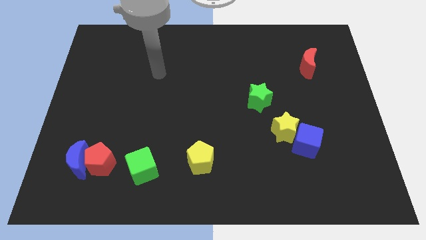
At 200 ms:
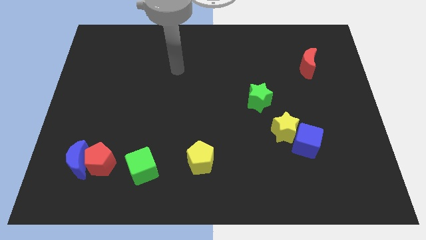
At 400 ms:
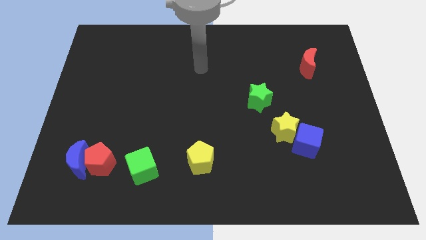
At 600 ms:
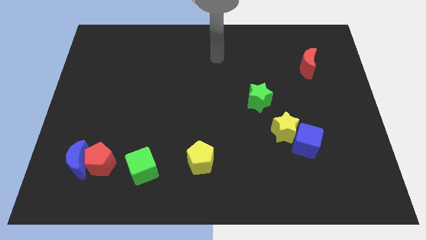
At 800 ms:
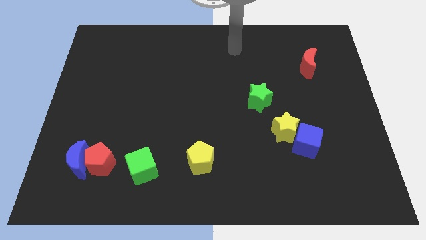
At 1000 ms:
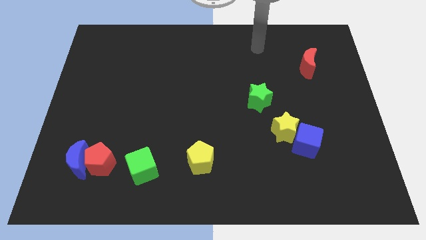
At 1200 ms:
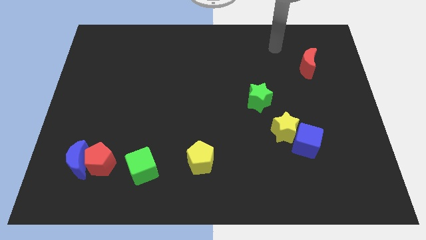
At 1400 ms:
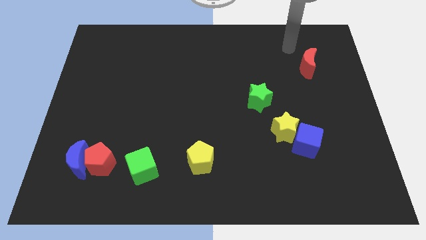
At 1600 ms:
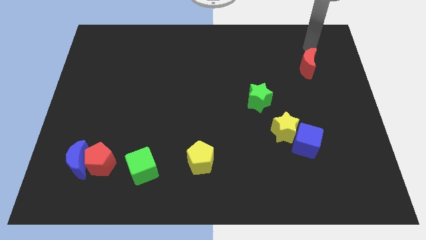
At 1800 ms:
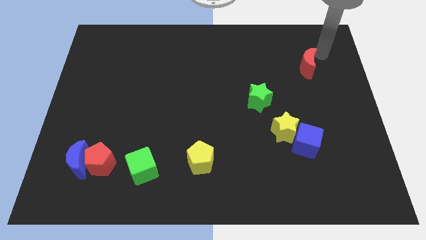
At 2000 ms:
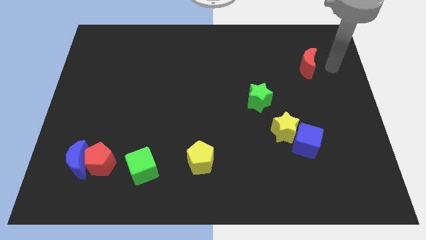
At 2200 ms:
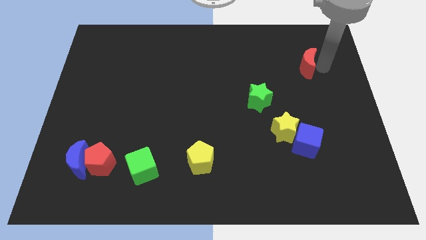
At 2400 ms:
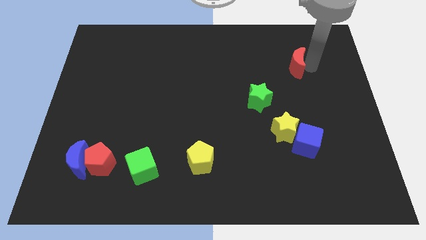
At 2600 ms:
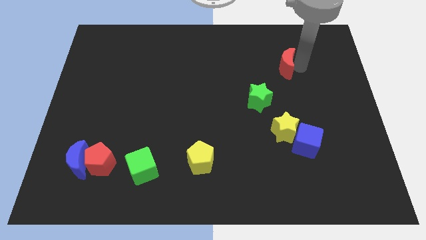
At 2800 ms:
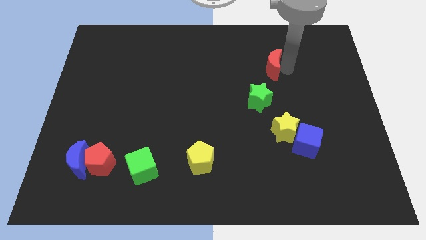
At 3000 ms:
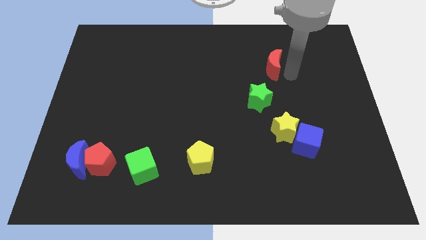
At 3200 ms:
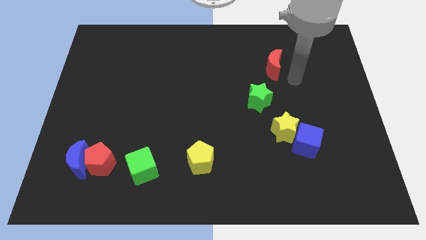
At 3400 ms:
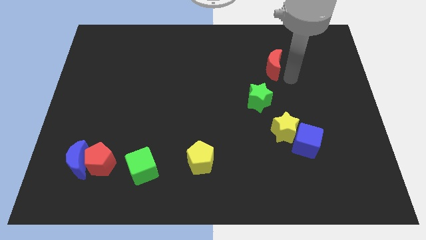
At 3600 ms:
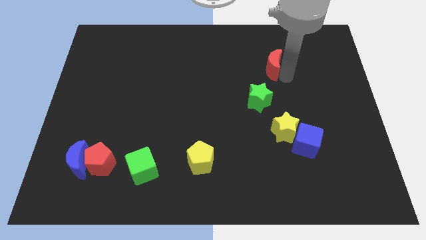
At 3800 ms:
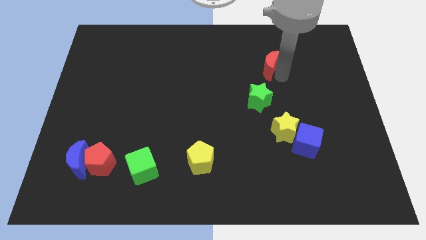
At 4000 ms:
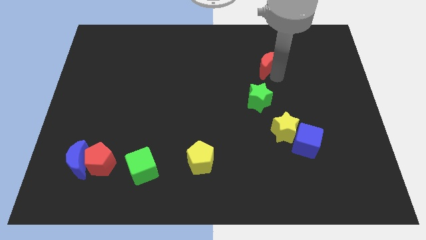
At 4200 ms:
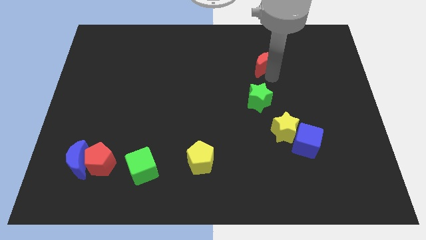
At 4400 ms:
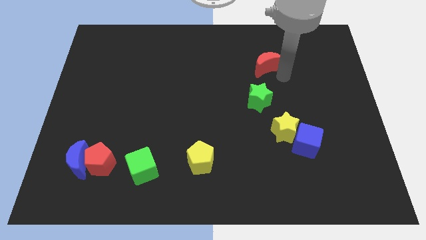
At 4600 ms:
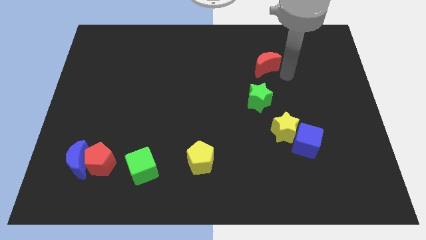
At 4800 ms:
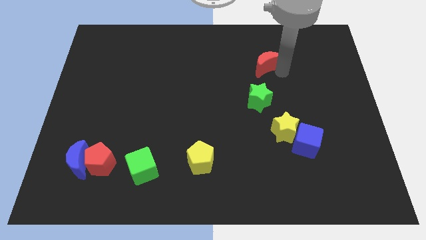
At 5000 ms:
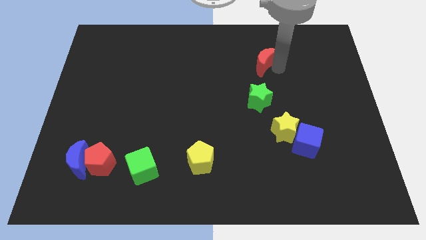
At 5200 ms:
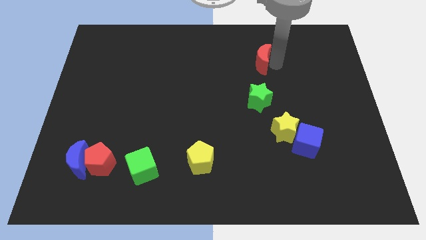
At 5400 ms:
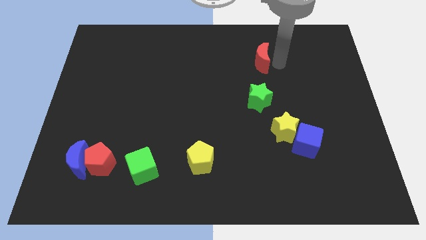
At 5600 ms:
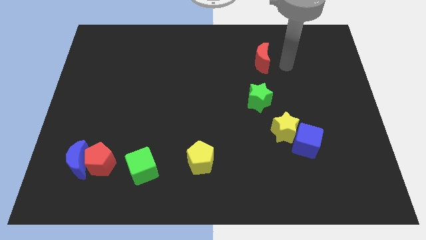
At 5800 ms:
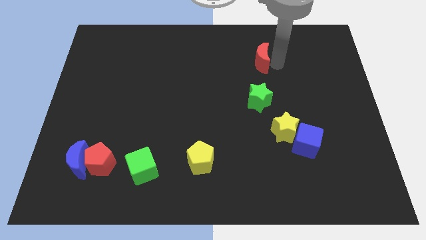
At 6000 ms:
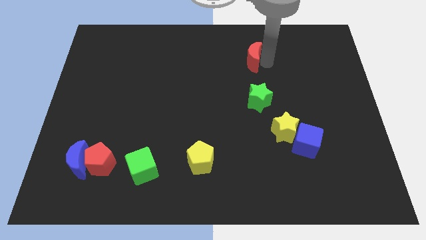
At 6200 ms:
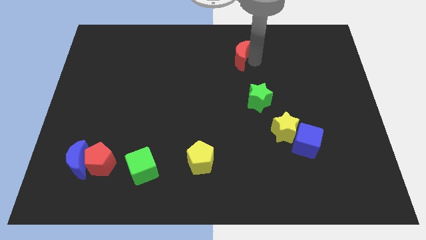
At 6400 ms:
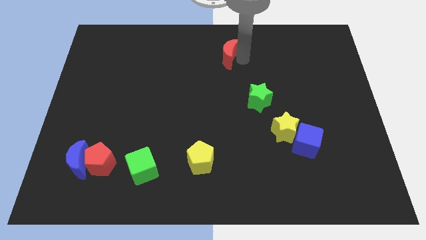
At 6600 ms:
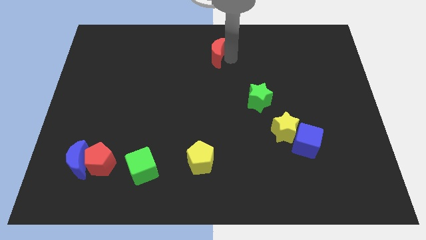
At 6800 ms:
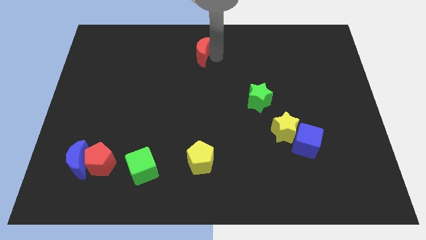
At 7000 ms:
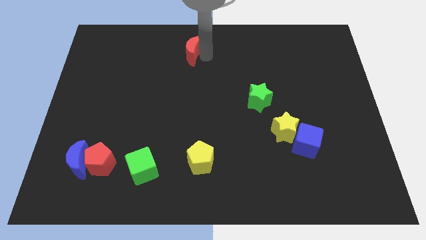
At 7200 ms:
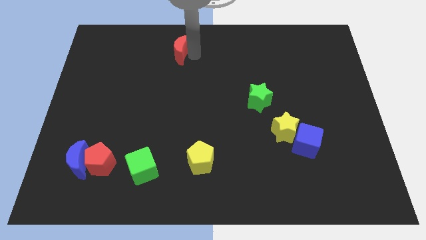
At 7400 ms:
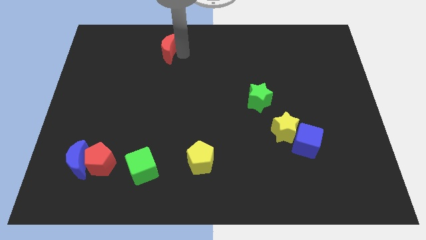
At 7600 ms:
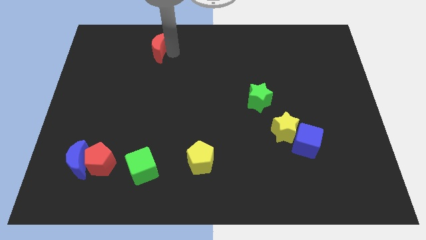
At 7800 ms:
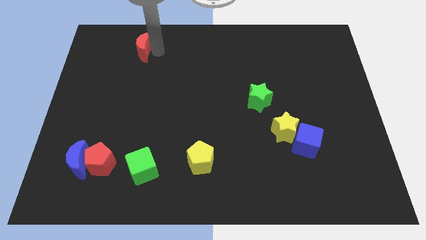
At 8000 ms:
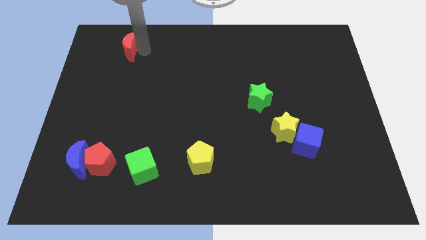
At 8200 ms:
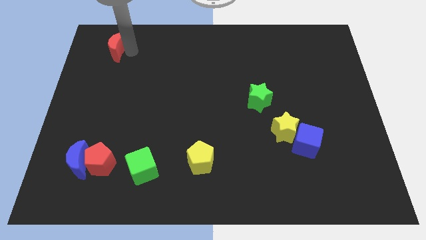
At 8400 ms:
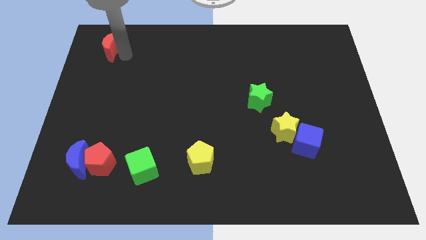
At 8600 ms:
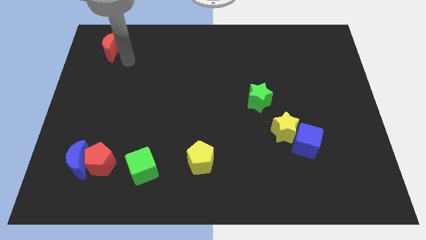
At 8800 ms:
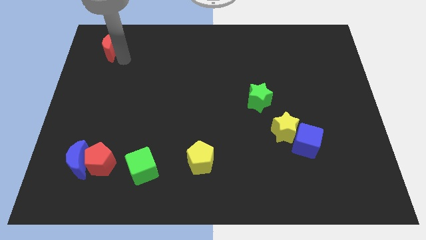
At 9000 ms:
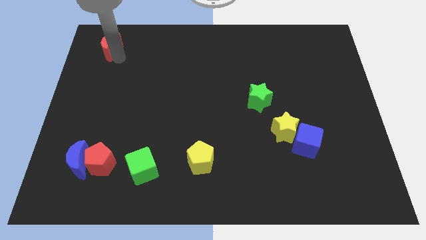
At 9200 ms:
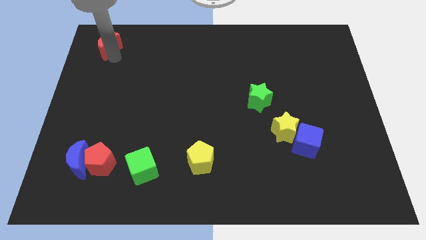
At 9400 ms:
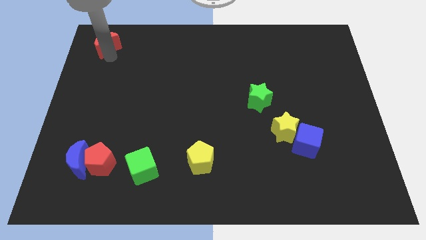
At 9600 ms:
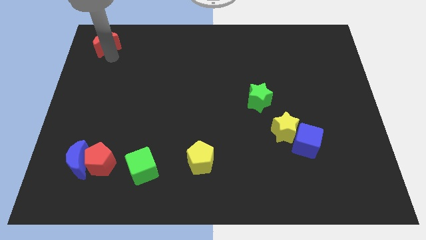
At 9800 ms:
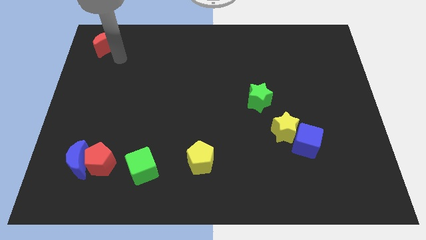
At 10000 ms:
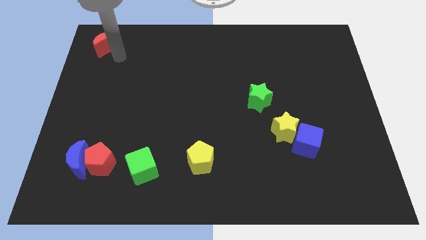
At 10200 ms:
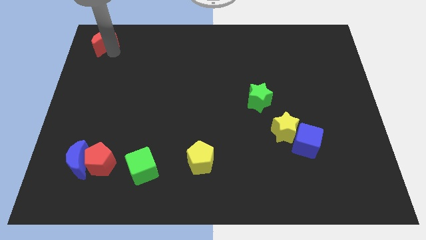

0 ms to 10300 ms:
move the red moon to the top left
